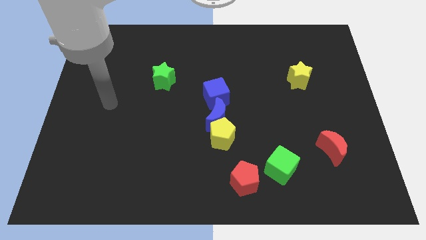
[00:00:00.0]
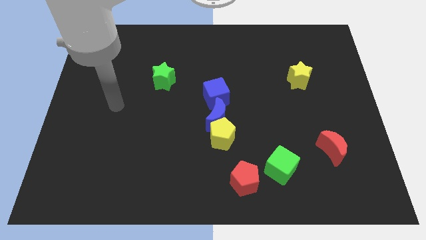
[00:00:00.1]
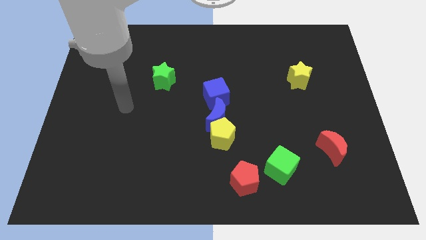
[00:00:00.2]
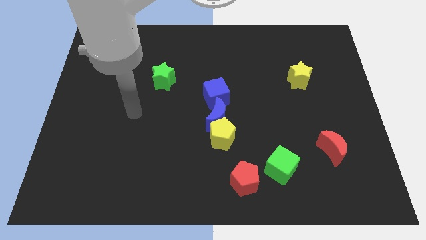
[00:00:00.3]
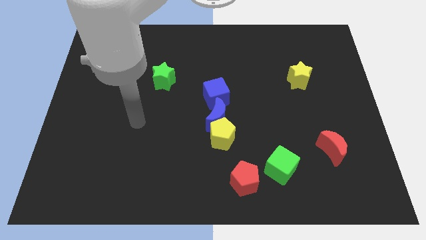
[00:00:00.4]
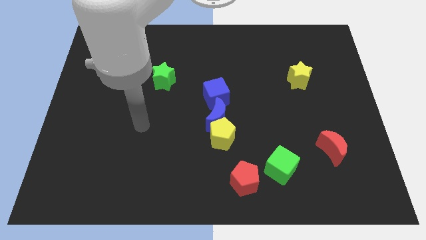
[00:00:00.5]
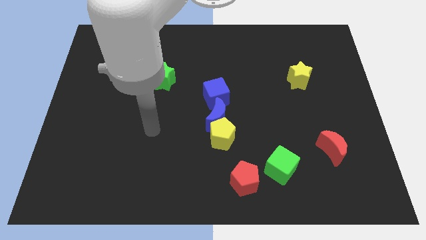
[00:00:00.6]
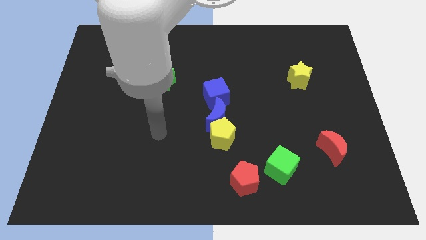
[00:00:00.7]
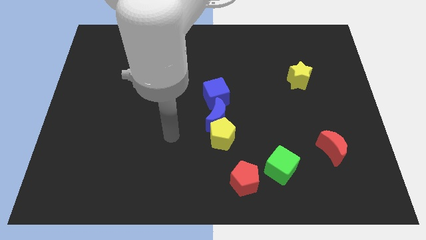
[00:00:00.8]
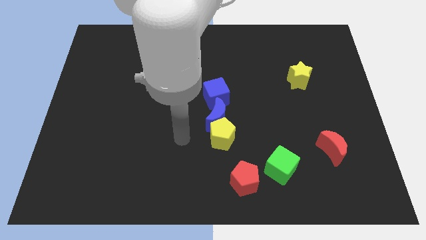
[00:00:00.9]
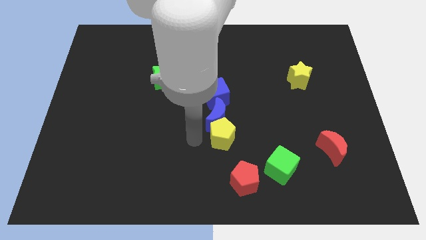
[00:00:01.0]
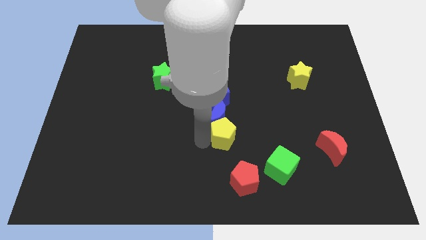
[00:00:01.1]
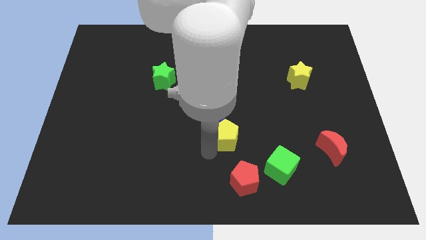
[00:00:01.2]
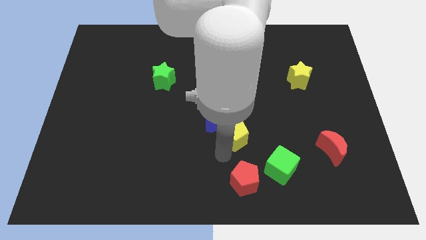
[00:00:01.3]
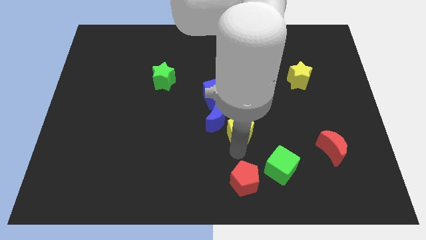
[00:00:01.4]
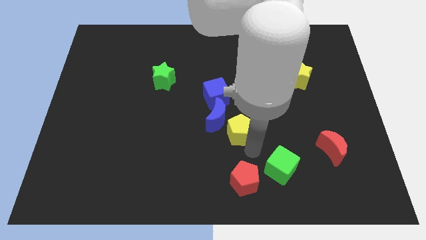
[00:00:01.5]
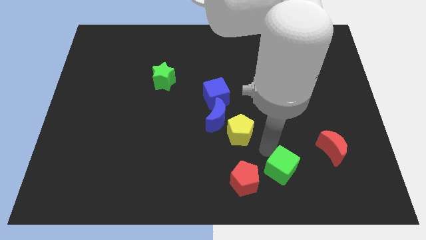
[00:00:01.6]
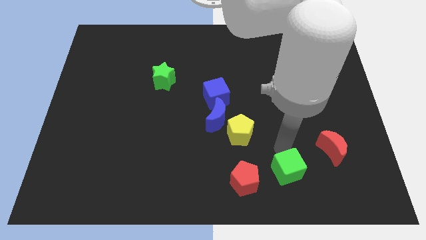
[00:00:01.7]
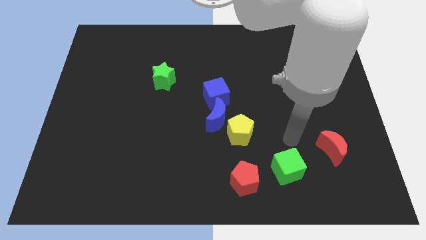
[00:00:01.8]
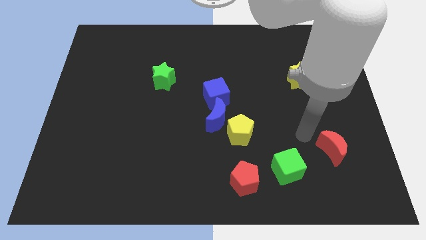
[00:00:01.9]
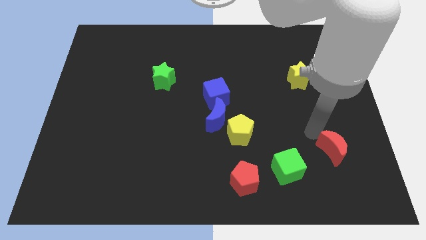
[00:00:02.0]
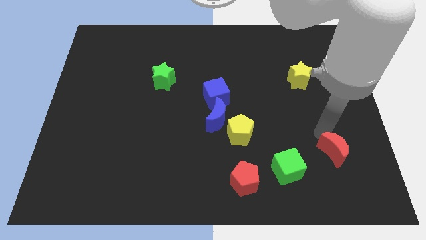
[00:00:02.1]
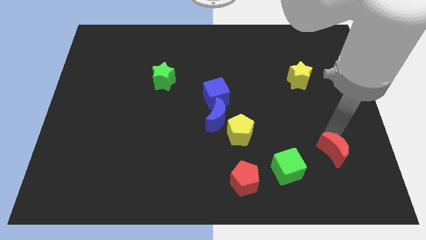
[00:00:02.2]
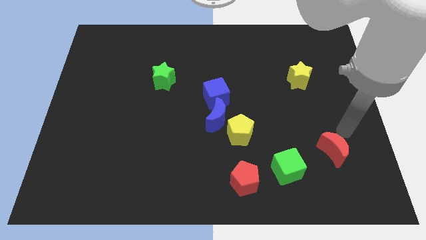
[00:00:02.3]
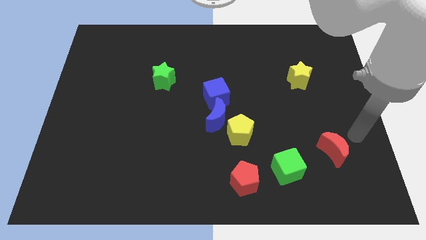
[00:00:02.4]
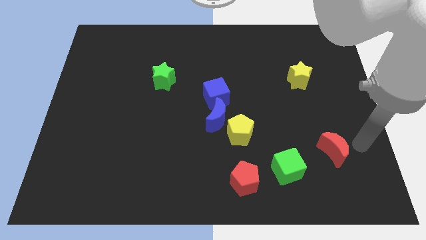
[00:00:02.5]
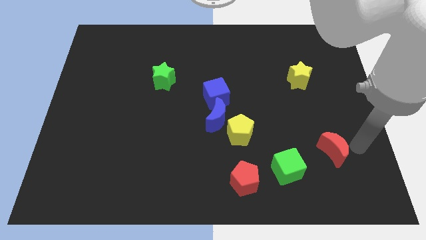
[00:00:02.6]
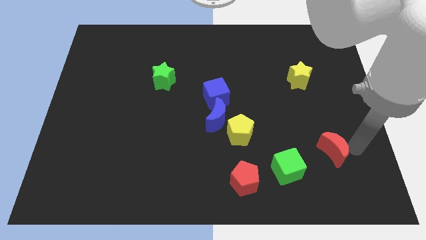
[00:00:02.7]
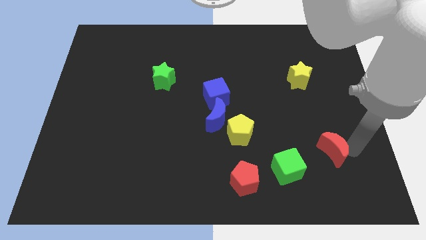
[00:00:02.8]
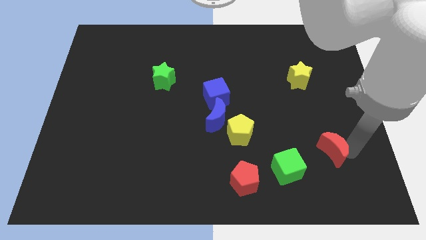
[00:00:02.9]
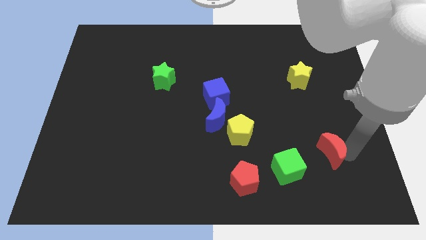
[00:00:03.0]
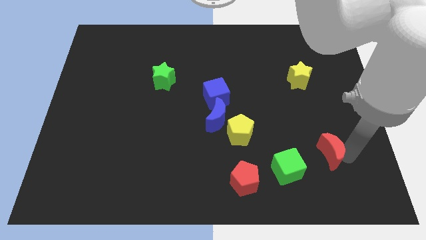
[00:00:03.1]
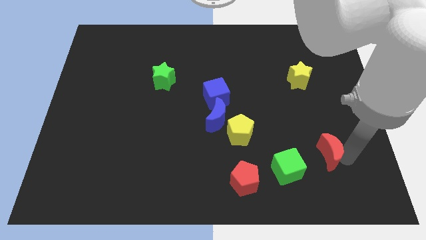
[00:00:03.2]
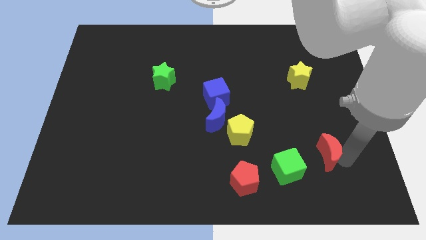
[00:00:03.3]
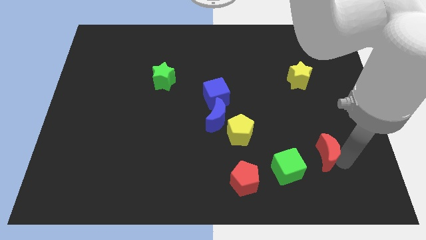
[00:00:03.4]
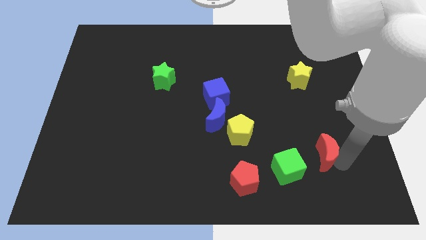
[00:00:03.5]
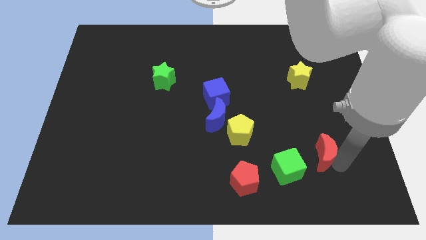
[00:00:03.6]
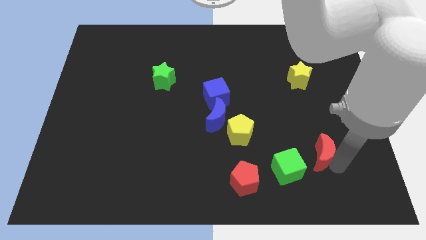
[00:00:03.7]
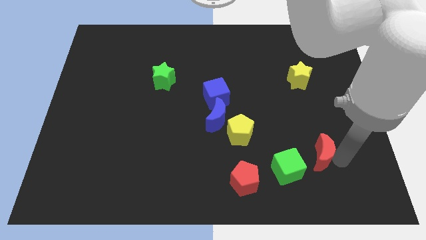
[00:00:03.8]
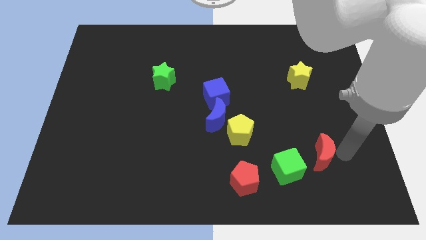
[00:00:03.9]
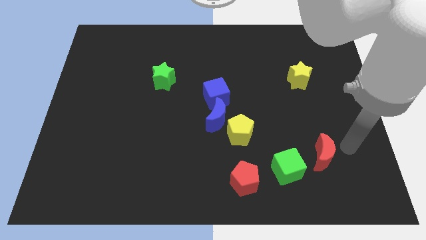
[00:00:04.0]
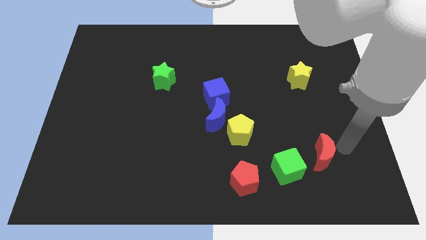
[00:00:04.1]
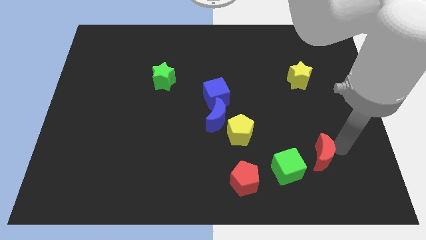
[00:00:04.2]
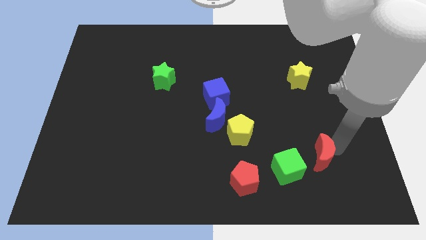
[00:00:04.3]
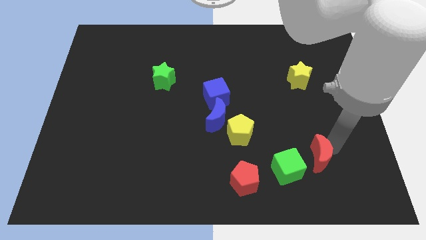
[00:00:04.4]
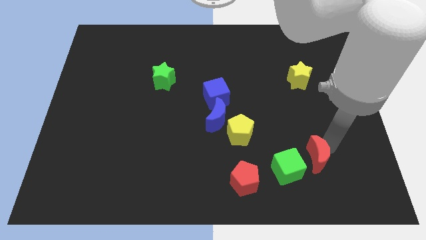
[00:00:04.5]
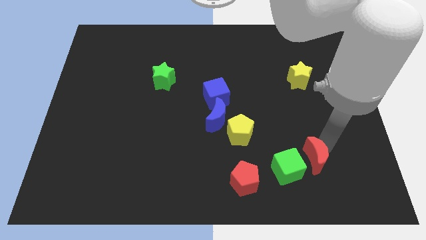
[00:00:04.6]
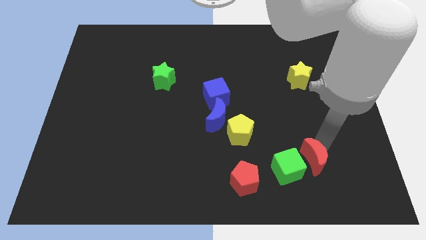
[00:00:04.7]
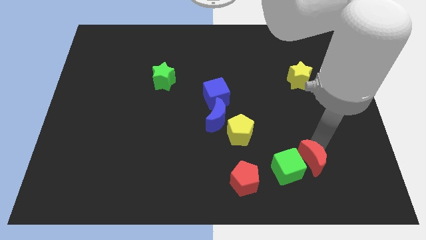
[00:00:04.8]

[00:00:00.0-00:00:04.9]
move the red moon close to the green cube

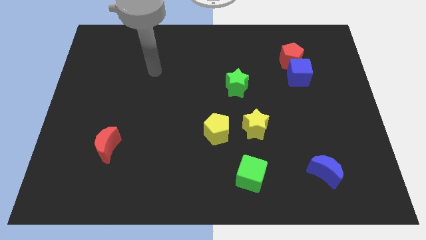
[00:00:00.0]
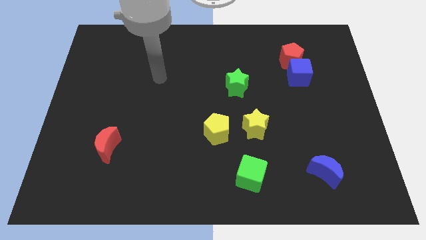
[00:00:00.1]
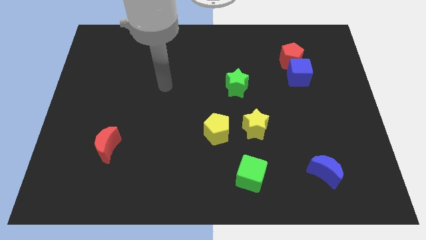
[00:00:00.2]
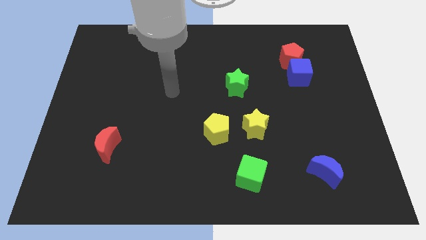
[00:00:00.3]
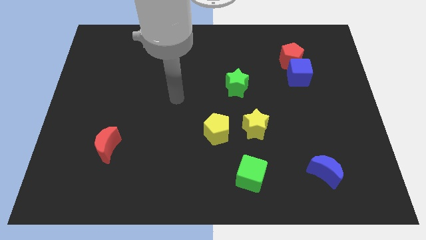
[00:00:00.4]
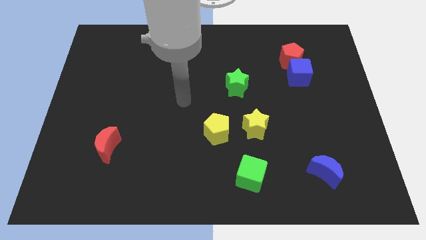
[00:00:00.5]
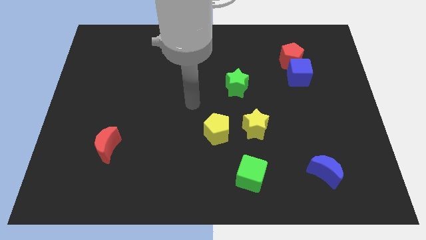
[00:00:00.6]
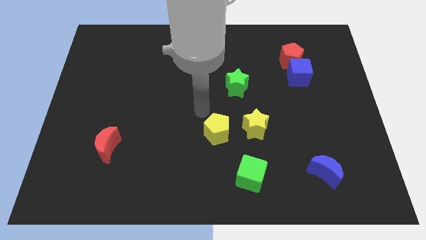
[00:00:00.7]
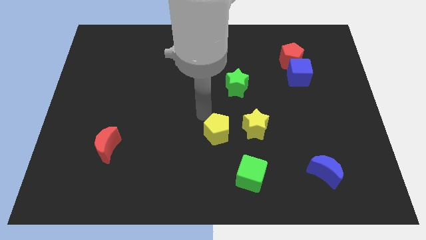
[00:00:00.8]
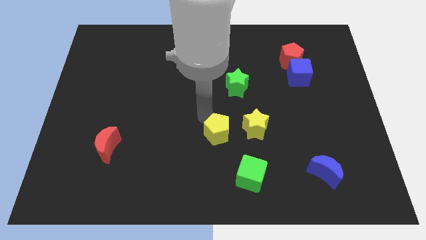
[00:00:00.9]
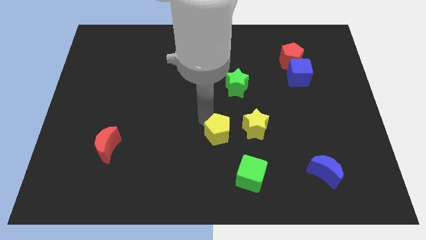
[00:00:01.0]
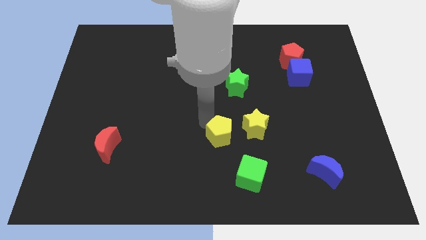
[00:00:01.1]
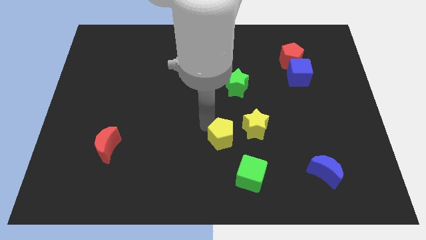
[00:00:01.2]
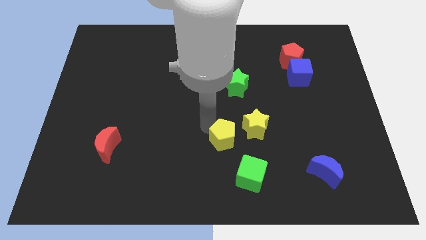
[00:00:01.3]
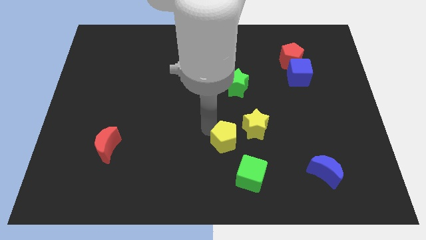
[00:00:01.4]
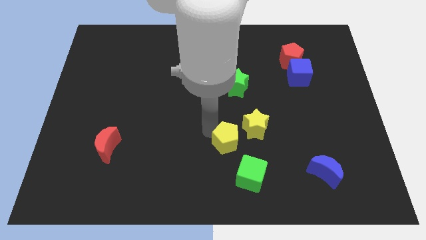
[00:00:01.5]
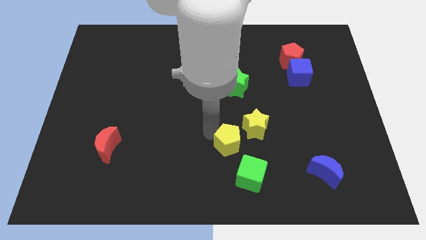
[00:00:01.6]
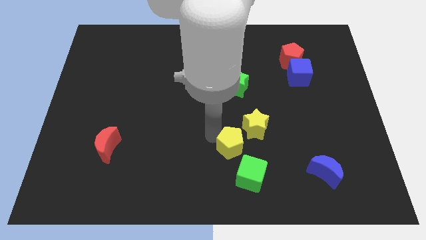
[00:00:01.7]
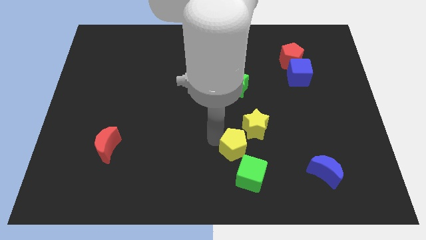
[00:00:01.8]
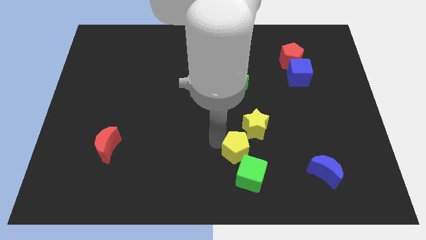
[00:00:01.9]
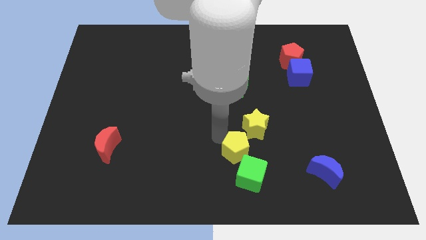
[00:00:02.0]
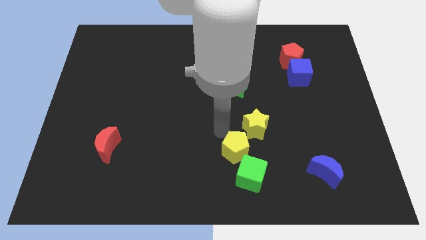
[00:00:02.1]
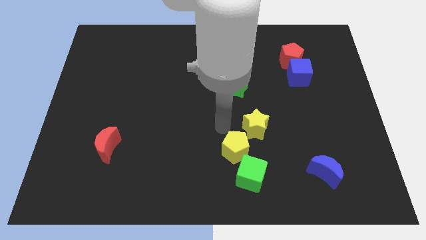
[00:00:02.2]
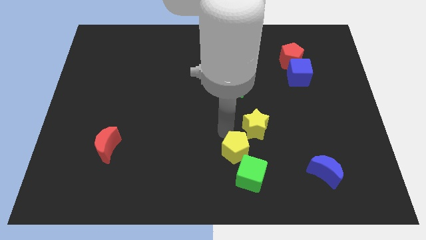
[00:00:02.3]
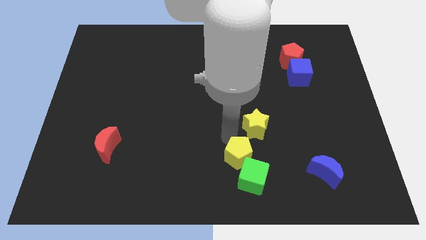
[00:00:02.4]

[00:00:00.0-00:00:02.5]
slide the yellow pentagon to the green cube
